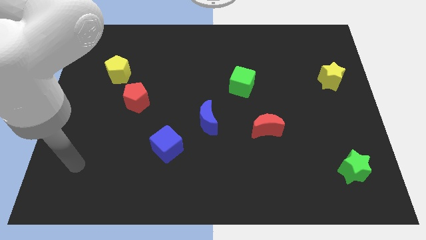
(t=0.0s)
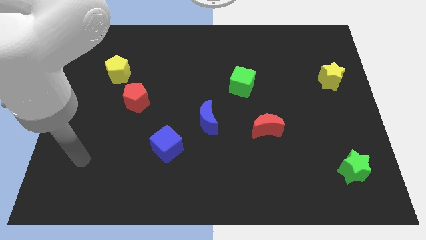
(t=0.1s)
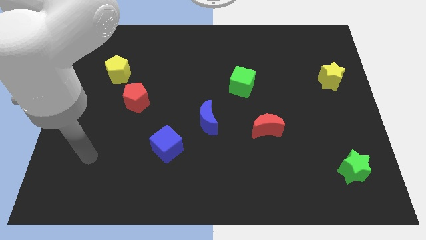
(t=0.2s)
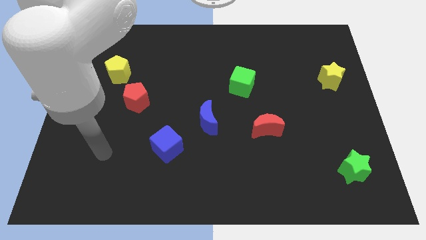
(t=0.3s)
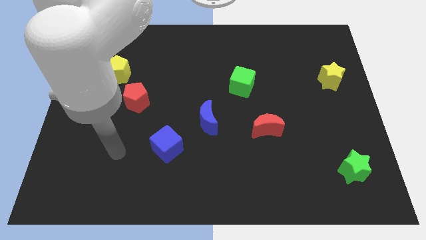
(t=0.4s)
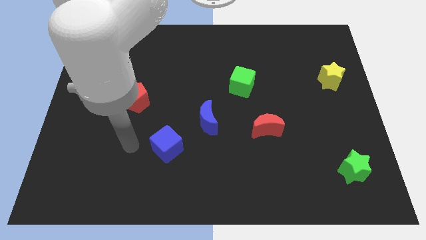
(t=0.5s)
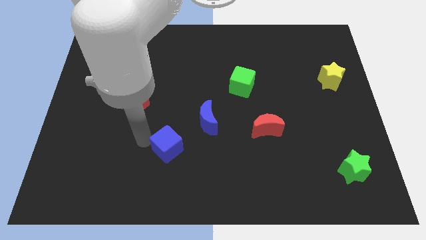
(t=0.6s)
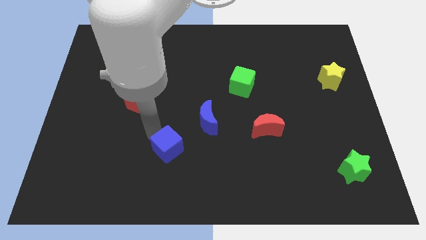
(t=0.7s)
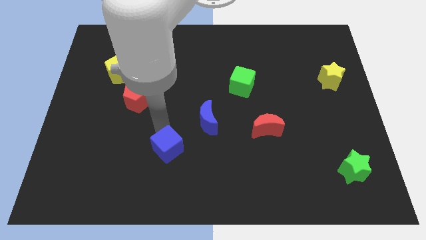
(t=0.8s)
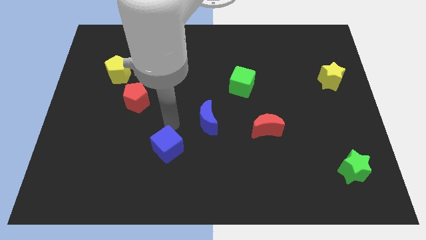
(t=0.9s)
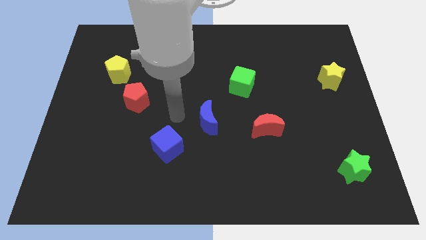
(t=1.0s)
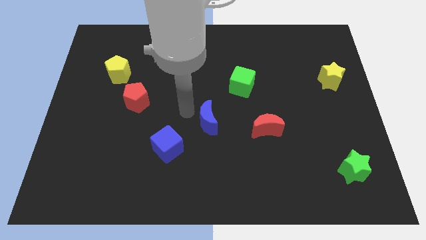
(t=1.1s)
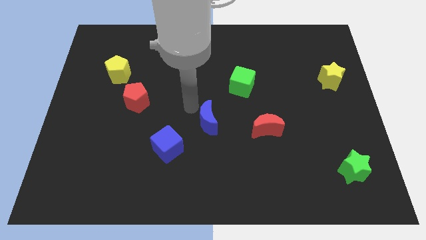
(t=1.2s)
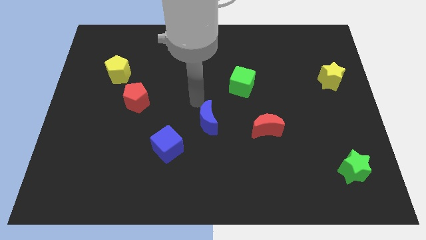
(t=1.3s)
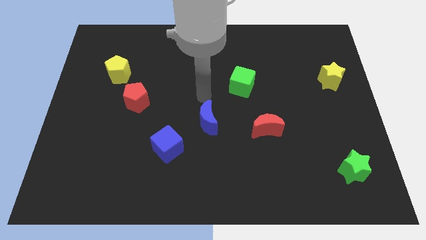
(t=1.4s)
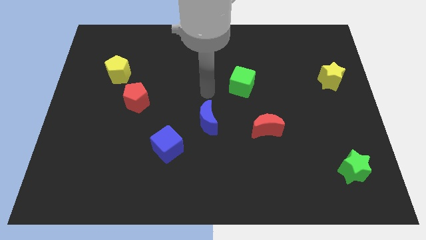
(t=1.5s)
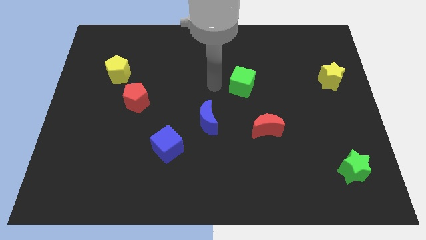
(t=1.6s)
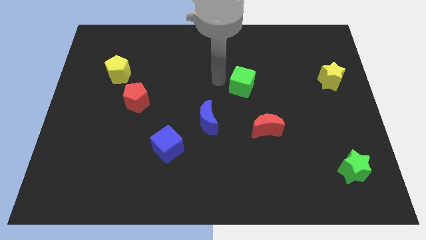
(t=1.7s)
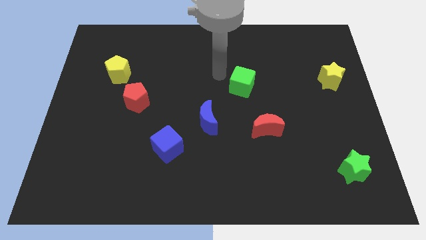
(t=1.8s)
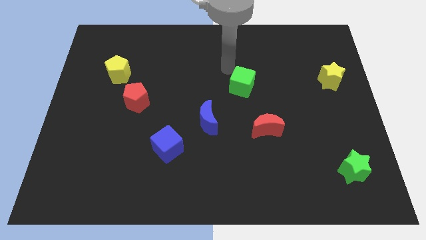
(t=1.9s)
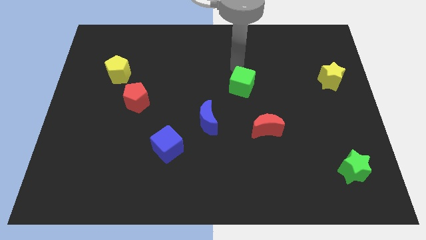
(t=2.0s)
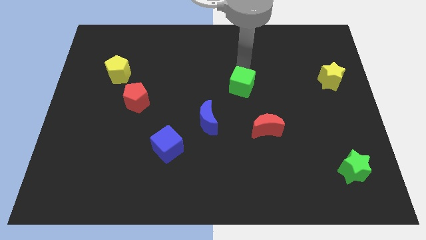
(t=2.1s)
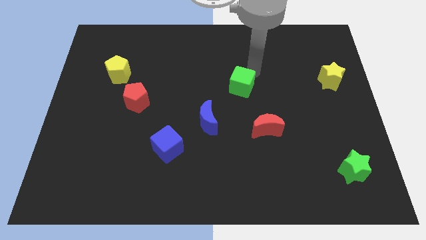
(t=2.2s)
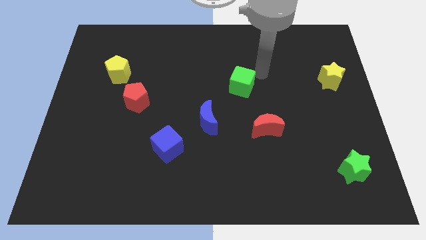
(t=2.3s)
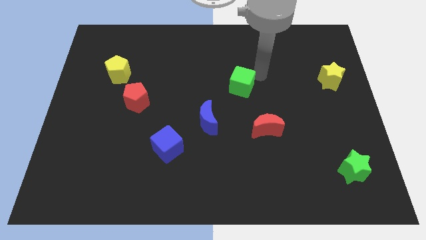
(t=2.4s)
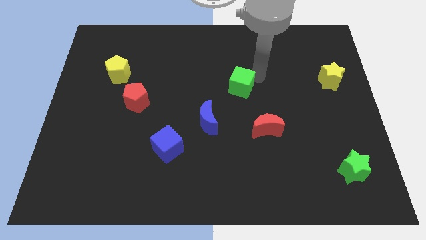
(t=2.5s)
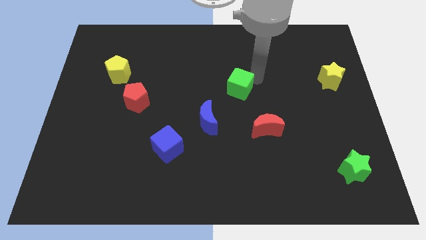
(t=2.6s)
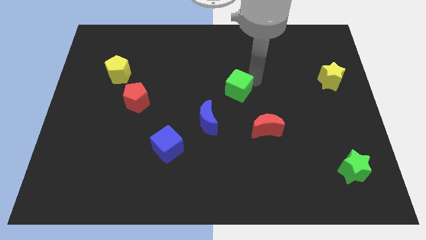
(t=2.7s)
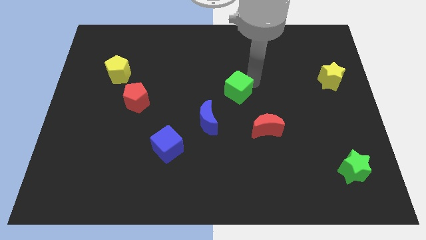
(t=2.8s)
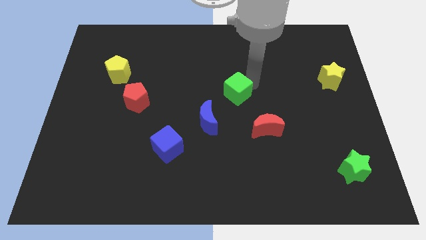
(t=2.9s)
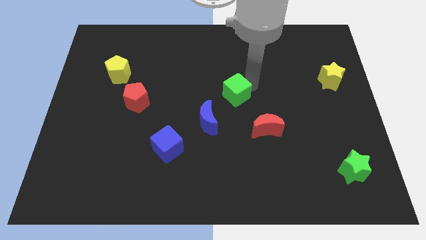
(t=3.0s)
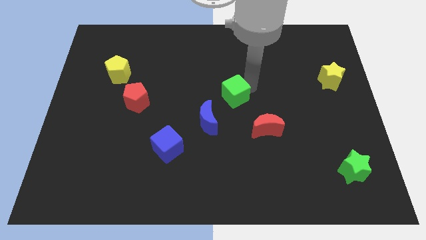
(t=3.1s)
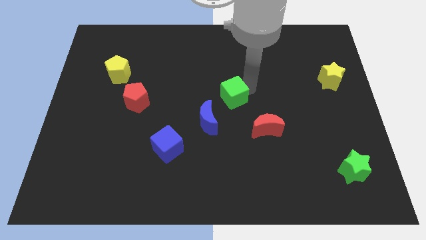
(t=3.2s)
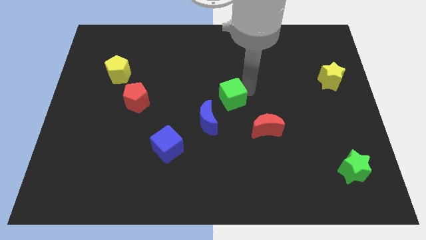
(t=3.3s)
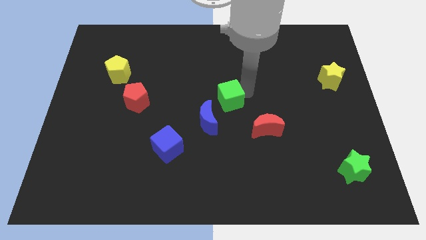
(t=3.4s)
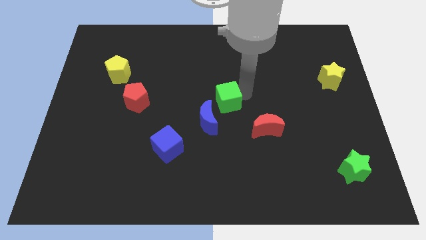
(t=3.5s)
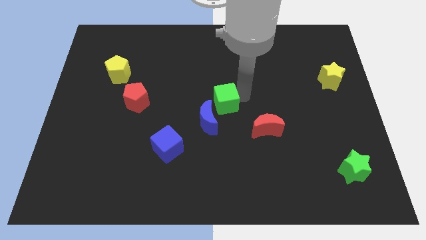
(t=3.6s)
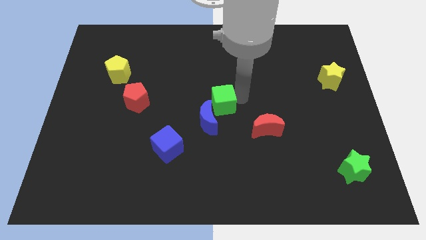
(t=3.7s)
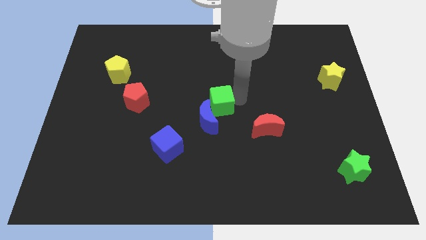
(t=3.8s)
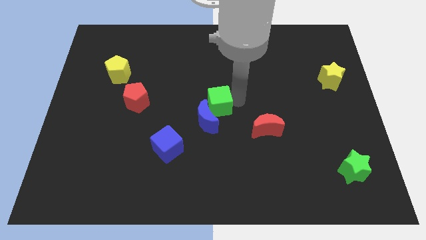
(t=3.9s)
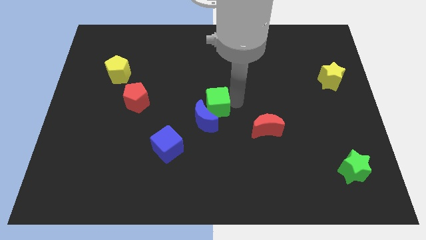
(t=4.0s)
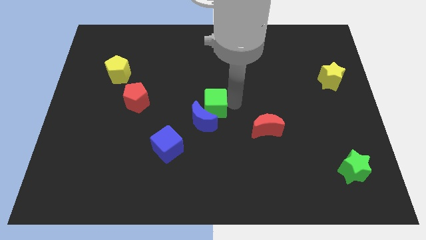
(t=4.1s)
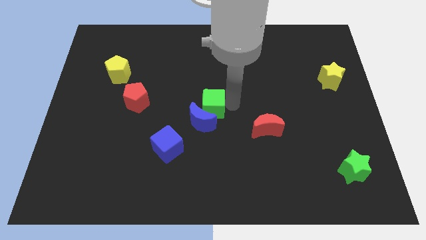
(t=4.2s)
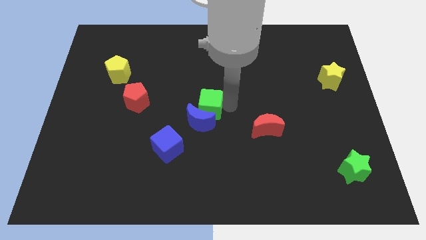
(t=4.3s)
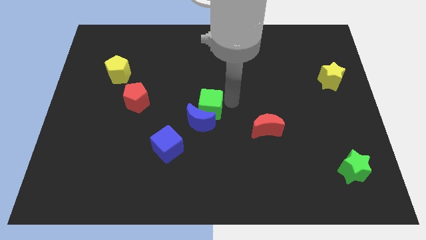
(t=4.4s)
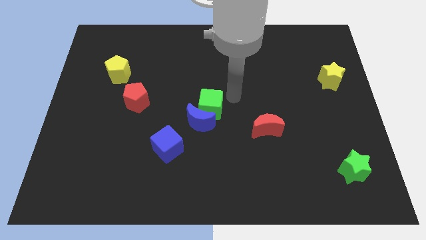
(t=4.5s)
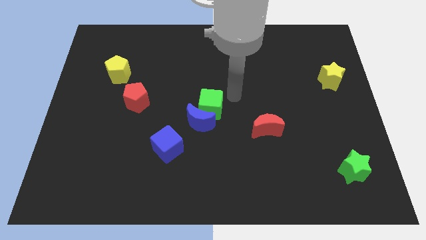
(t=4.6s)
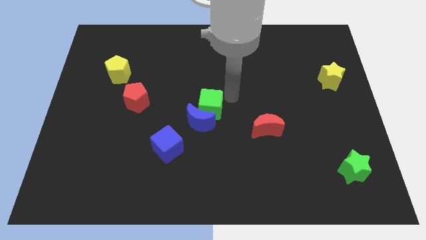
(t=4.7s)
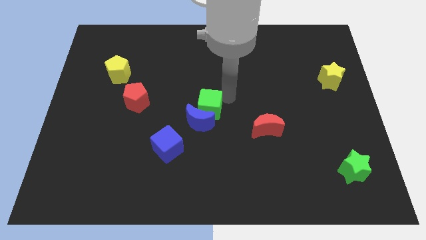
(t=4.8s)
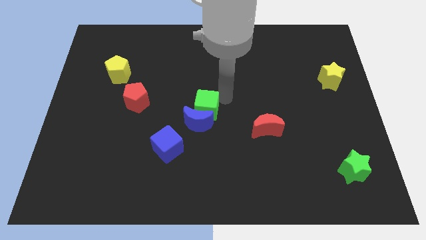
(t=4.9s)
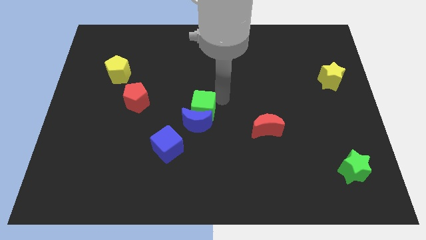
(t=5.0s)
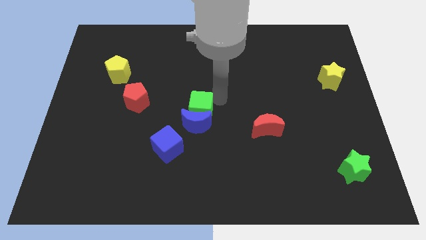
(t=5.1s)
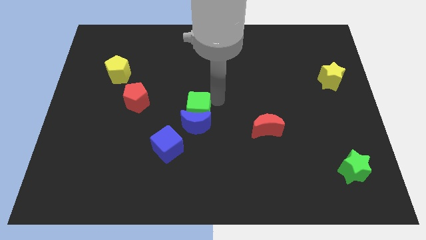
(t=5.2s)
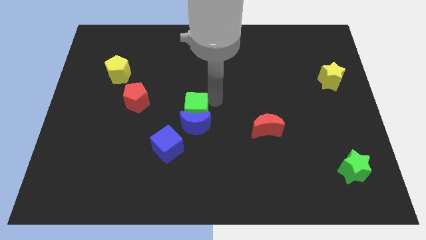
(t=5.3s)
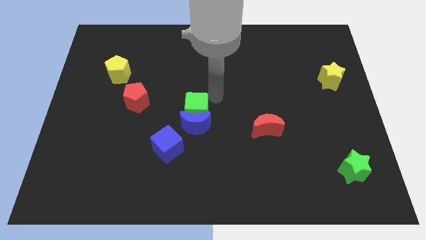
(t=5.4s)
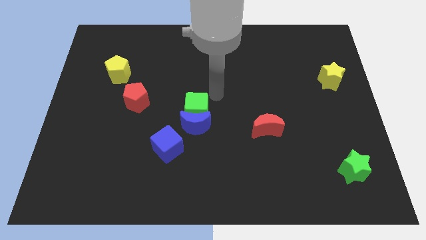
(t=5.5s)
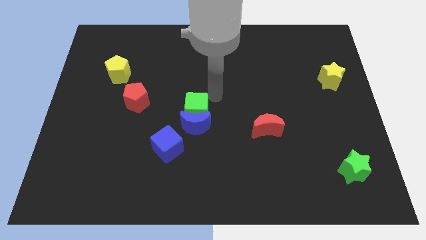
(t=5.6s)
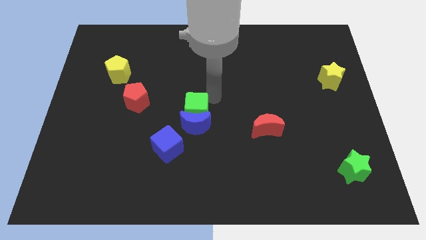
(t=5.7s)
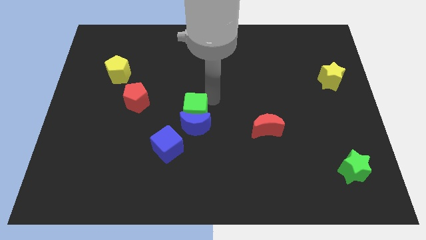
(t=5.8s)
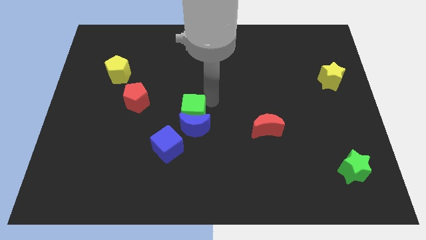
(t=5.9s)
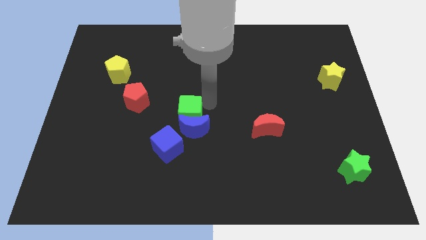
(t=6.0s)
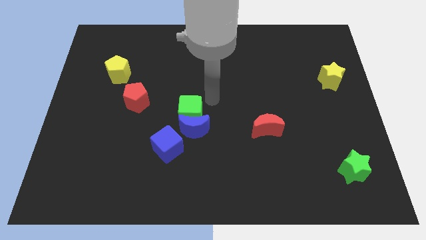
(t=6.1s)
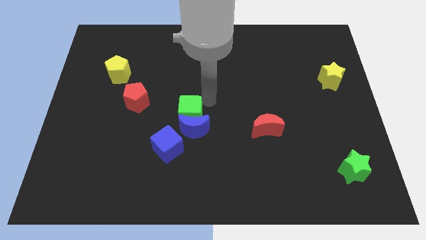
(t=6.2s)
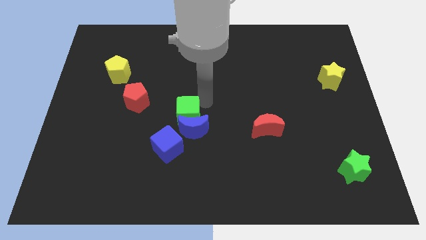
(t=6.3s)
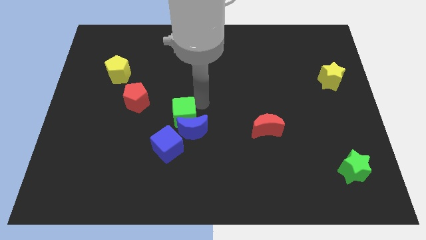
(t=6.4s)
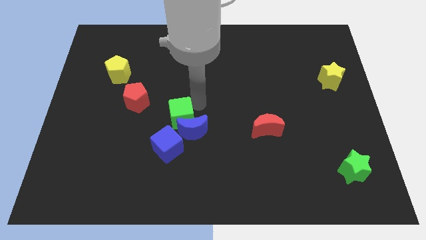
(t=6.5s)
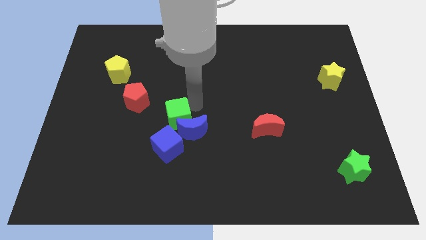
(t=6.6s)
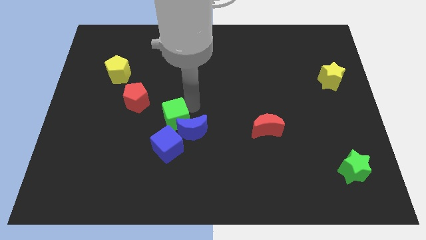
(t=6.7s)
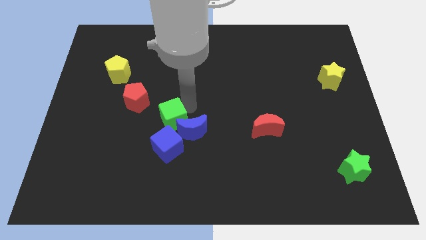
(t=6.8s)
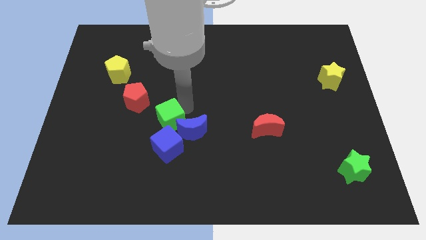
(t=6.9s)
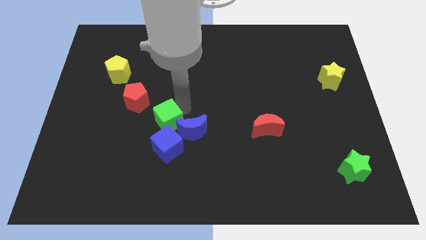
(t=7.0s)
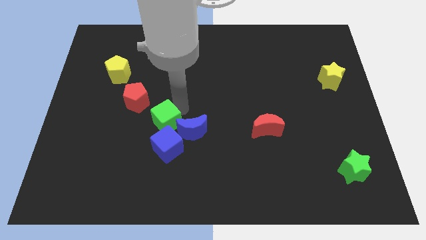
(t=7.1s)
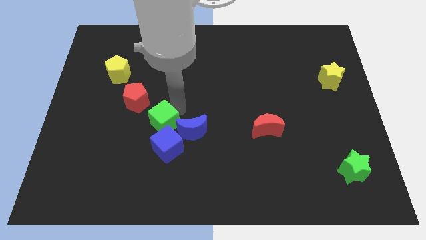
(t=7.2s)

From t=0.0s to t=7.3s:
move the green cube diagonally downwards and left

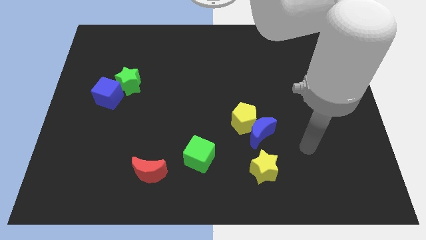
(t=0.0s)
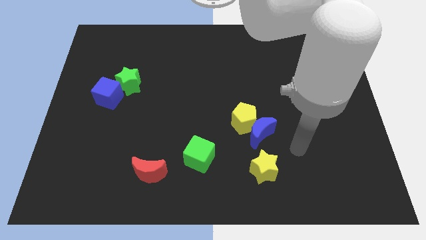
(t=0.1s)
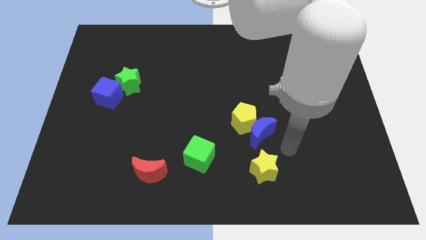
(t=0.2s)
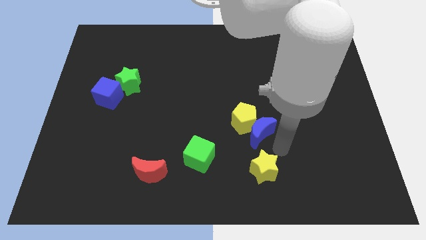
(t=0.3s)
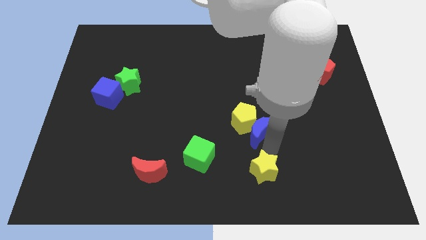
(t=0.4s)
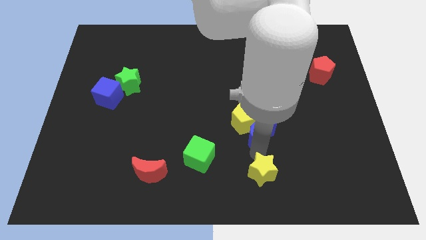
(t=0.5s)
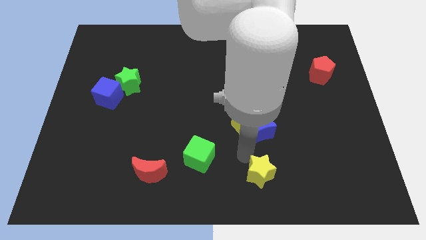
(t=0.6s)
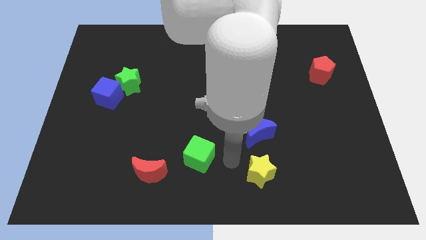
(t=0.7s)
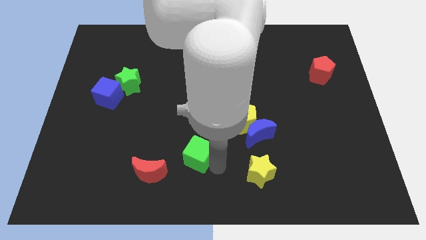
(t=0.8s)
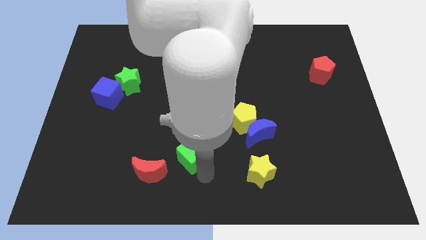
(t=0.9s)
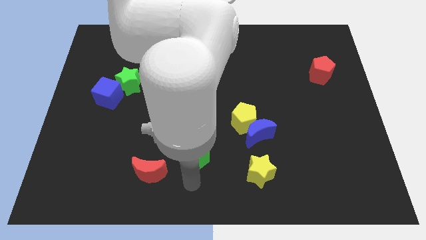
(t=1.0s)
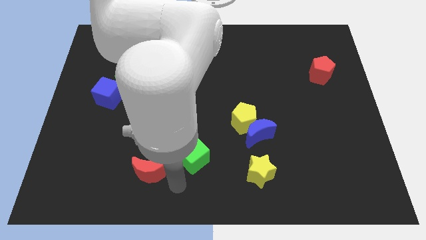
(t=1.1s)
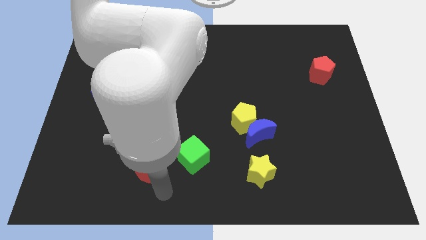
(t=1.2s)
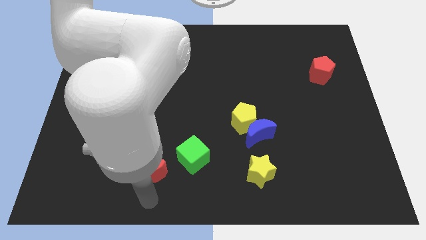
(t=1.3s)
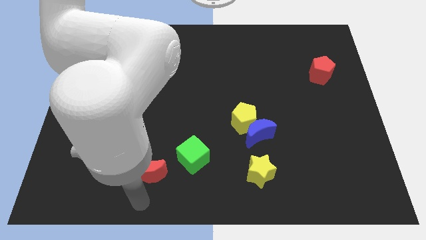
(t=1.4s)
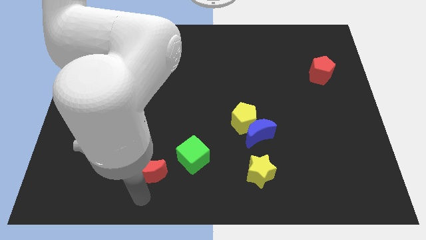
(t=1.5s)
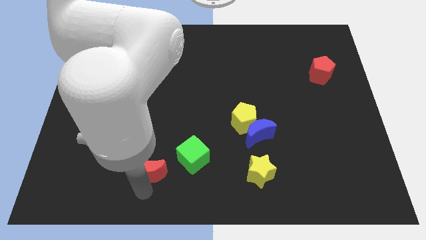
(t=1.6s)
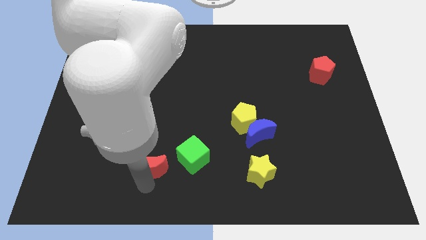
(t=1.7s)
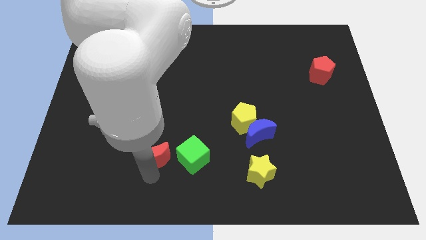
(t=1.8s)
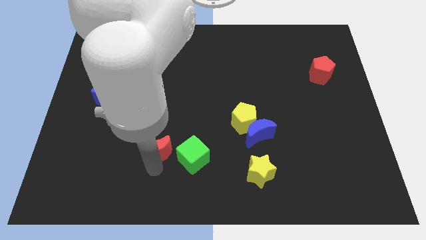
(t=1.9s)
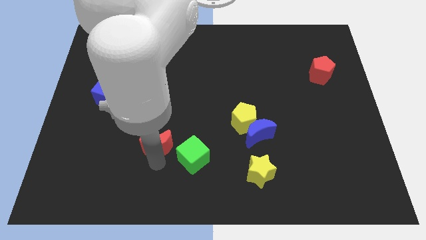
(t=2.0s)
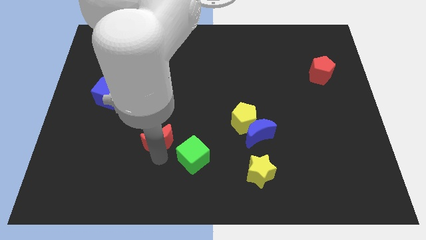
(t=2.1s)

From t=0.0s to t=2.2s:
slide the red moon up somewhat
